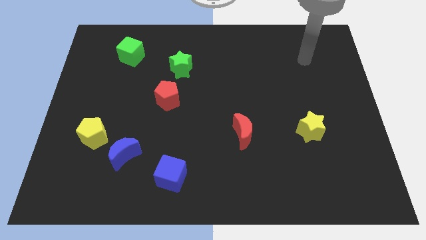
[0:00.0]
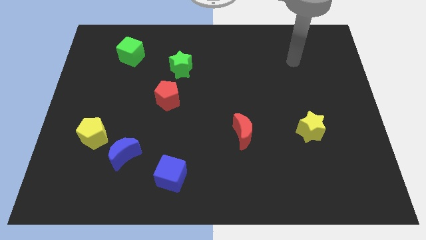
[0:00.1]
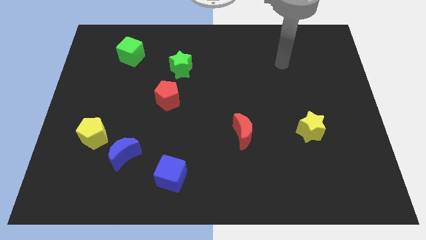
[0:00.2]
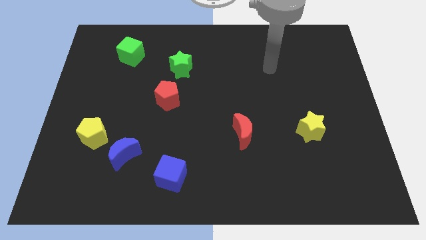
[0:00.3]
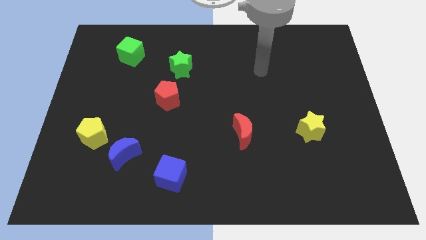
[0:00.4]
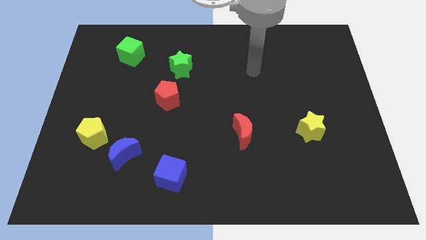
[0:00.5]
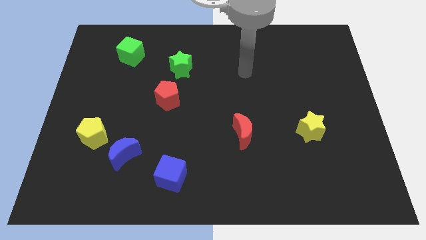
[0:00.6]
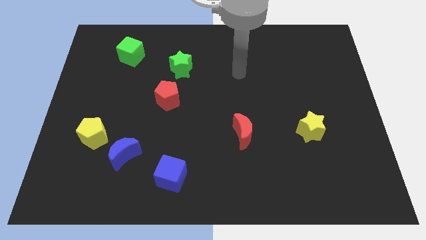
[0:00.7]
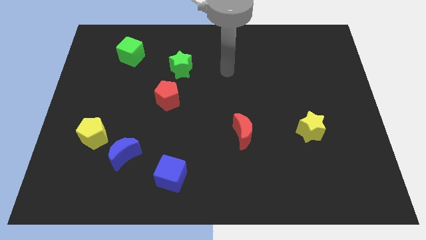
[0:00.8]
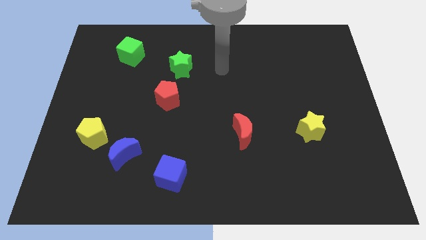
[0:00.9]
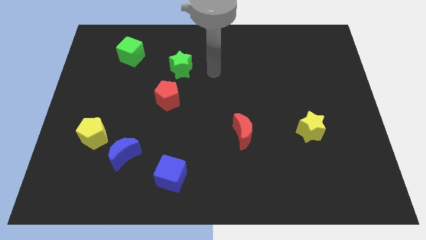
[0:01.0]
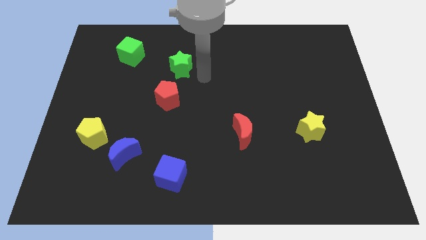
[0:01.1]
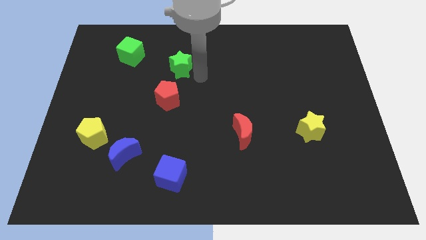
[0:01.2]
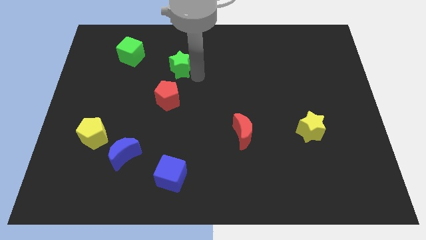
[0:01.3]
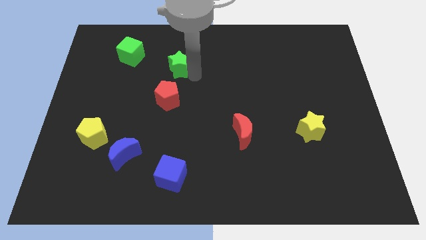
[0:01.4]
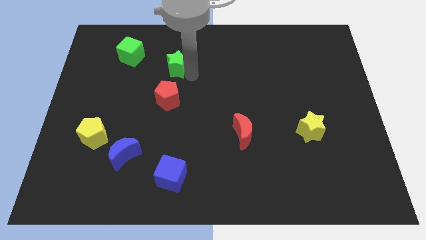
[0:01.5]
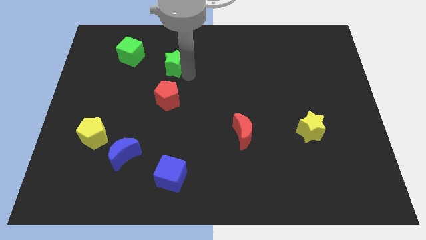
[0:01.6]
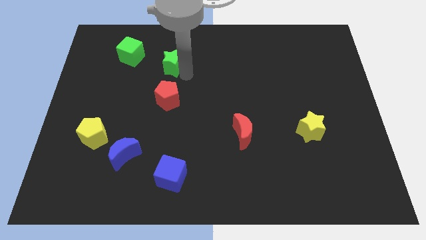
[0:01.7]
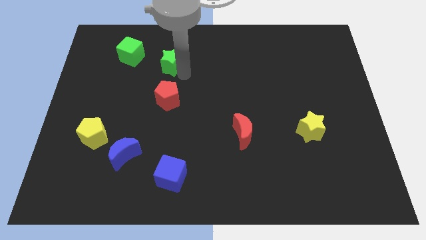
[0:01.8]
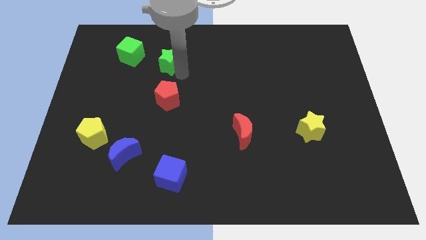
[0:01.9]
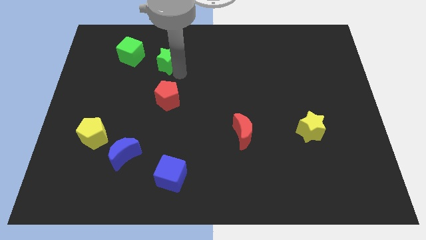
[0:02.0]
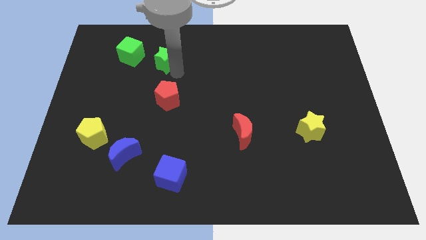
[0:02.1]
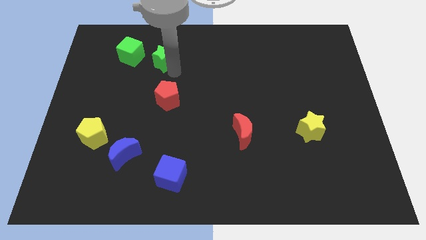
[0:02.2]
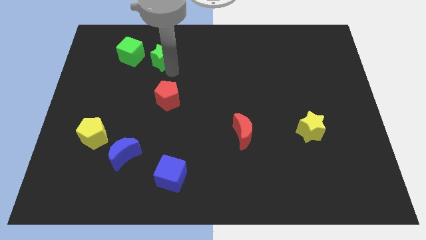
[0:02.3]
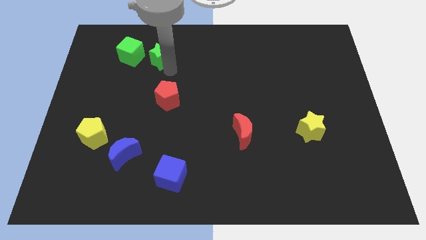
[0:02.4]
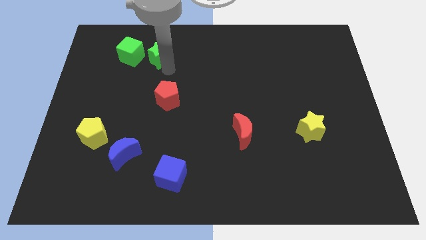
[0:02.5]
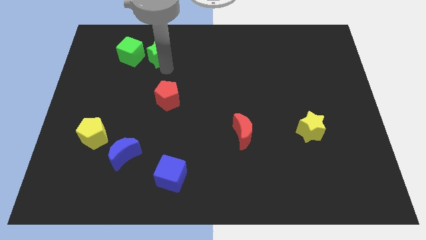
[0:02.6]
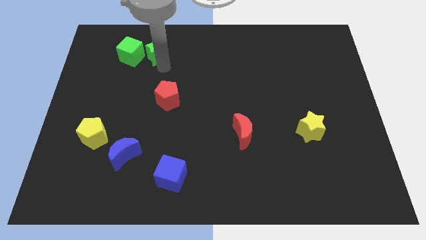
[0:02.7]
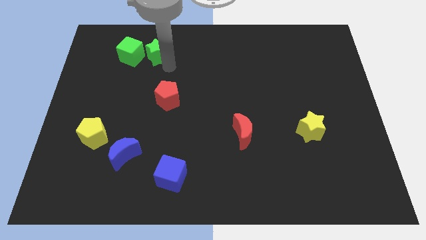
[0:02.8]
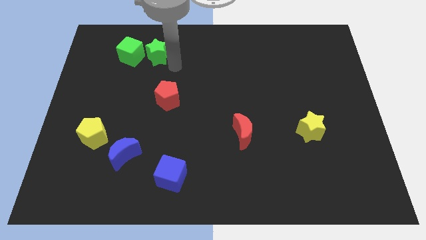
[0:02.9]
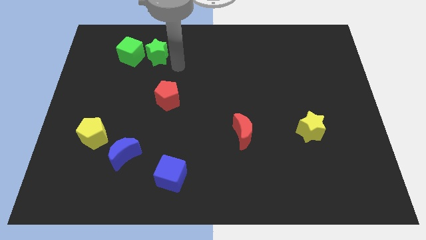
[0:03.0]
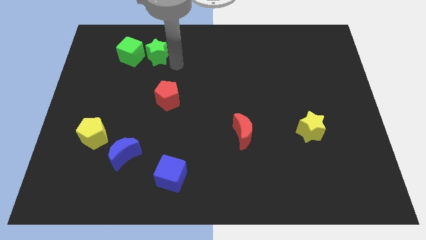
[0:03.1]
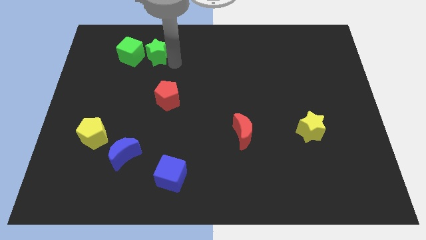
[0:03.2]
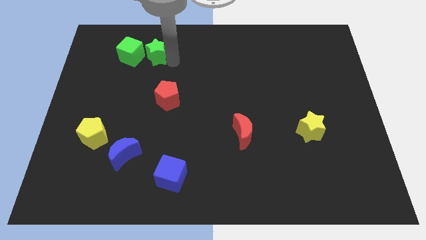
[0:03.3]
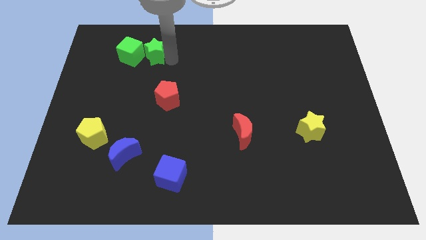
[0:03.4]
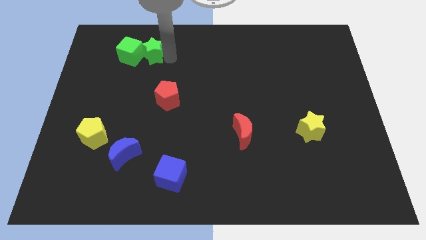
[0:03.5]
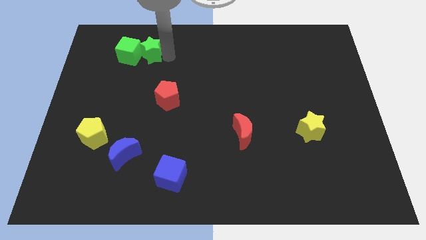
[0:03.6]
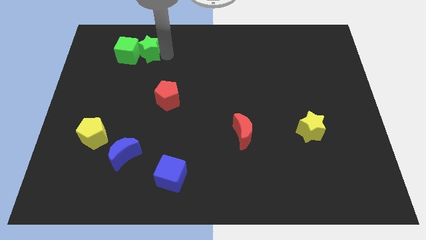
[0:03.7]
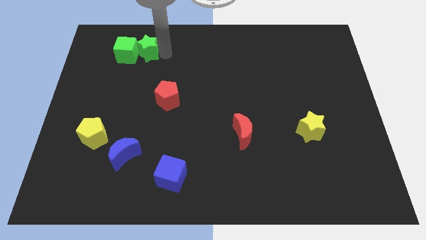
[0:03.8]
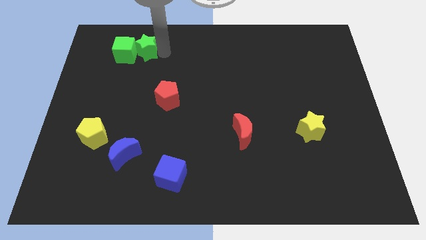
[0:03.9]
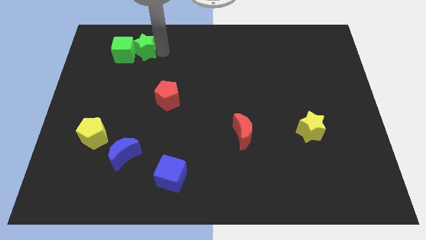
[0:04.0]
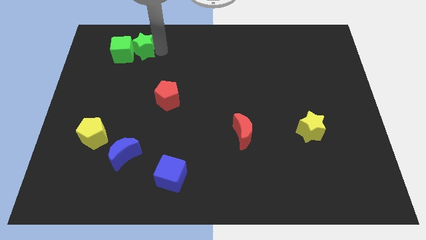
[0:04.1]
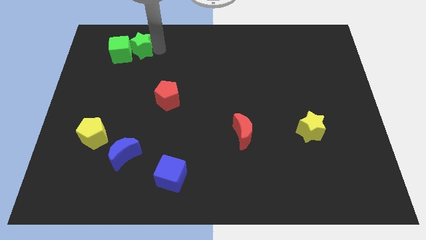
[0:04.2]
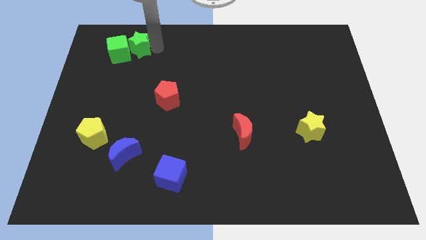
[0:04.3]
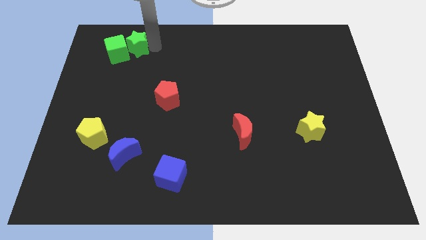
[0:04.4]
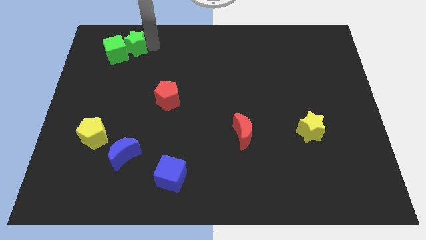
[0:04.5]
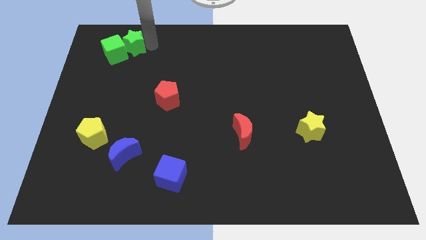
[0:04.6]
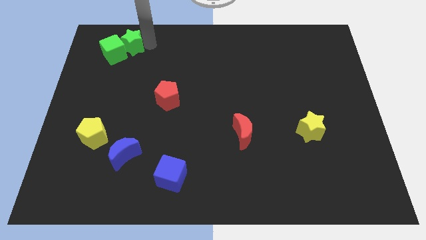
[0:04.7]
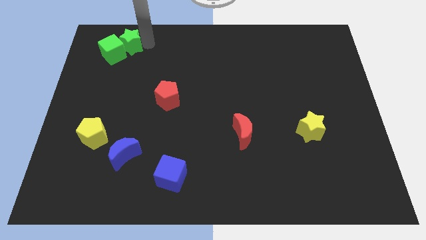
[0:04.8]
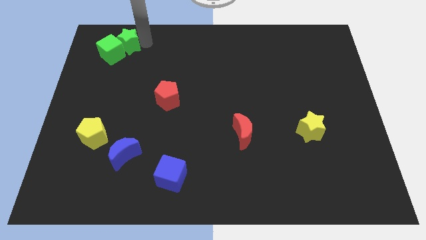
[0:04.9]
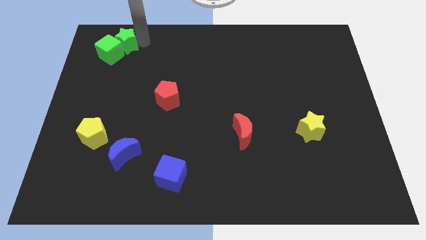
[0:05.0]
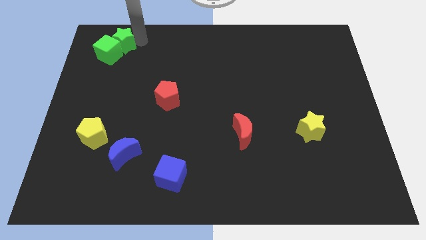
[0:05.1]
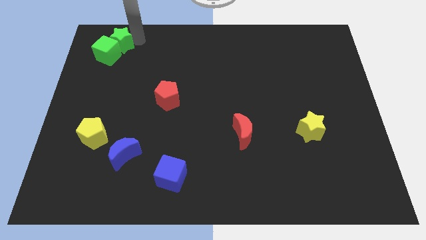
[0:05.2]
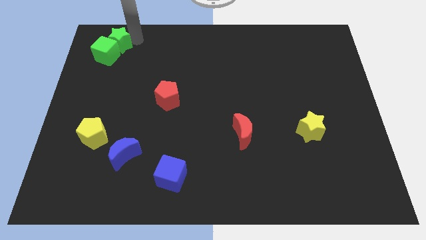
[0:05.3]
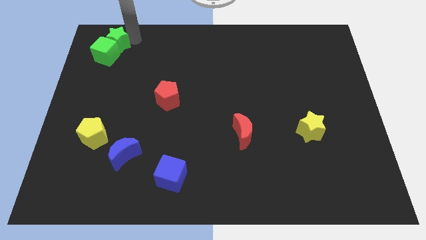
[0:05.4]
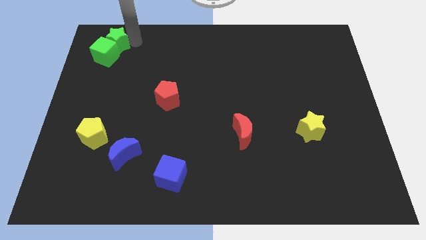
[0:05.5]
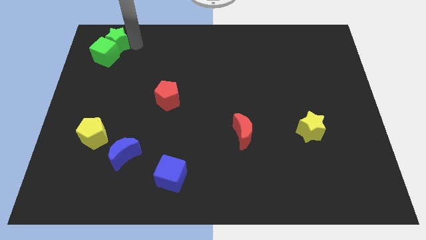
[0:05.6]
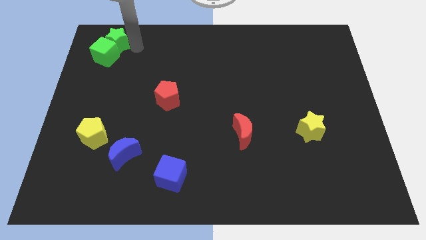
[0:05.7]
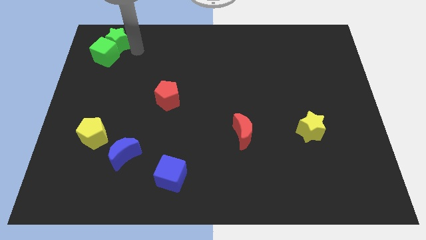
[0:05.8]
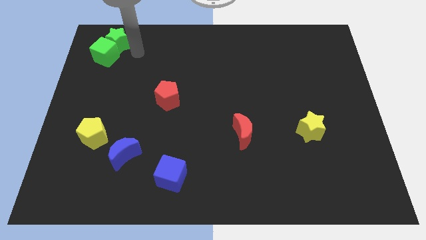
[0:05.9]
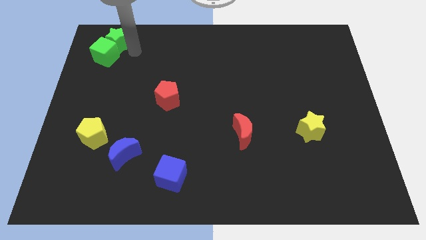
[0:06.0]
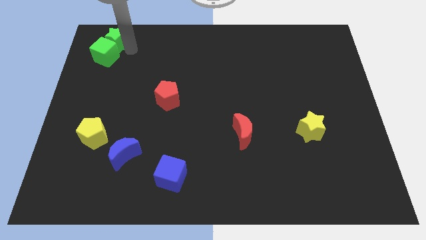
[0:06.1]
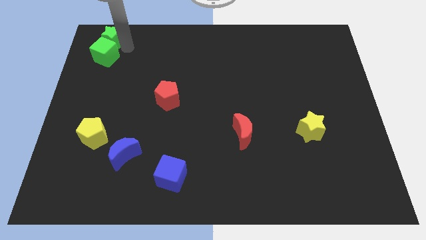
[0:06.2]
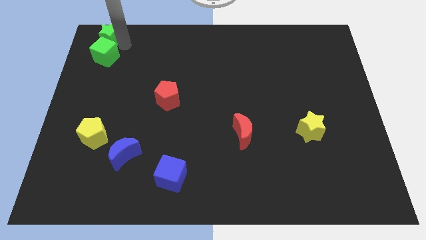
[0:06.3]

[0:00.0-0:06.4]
slide the green star to the top left of the board

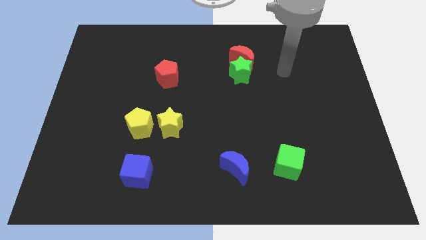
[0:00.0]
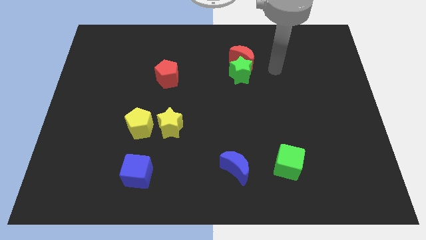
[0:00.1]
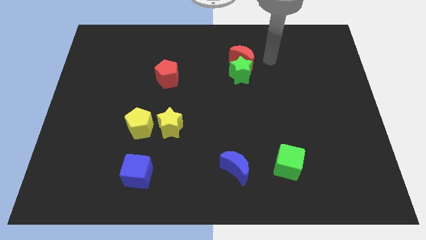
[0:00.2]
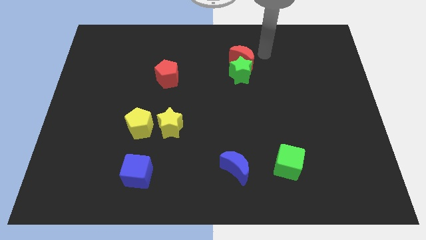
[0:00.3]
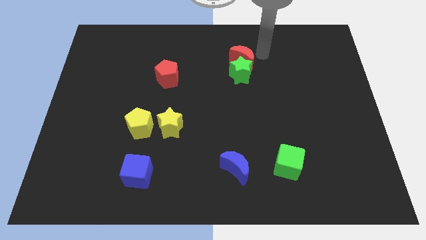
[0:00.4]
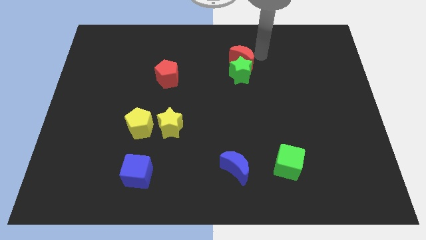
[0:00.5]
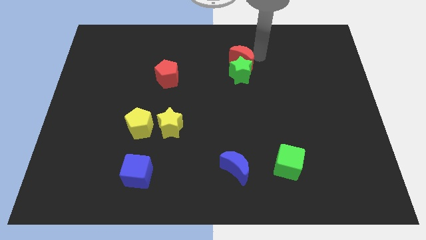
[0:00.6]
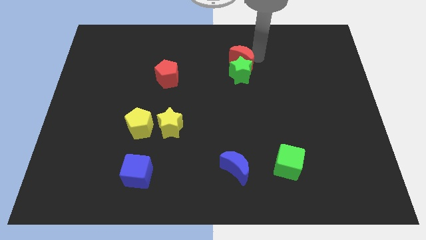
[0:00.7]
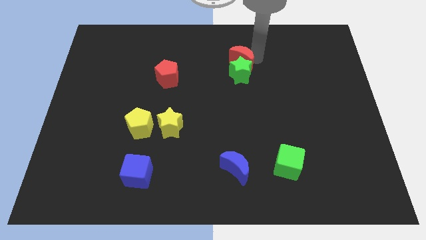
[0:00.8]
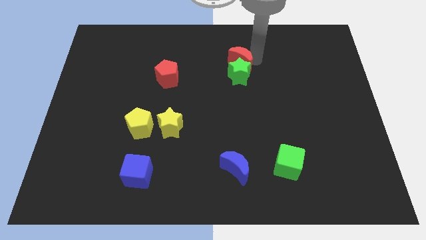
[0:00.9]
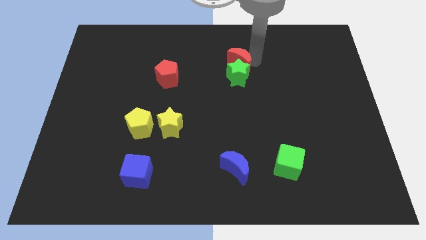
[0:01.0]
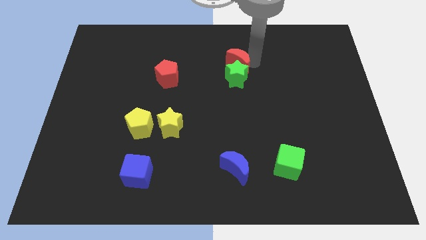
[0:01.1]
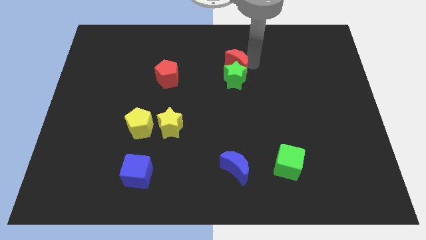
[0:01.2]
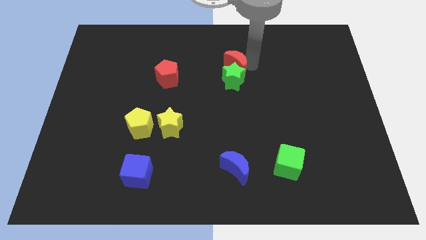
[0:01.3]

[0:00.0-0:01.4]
put the red moon to the middle of the board
